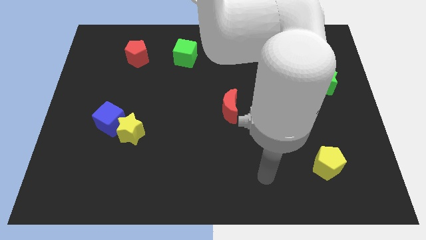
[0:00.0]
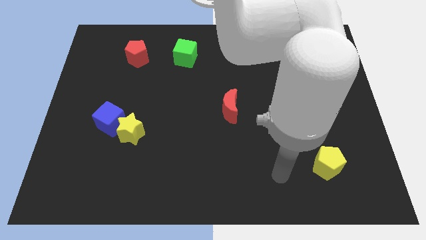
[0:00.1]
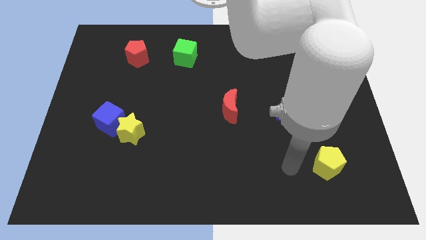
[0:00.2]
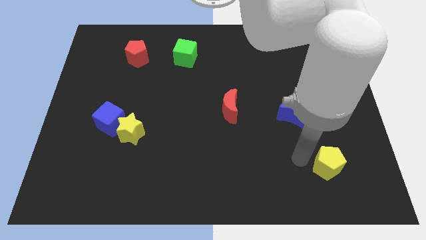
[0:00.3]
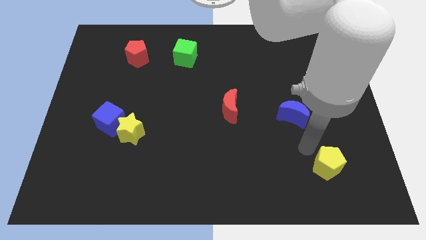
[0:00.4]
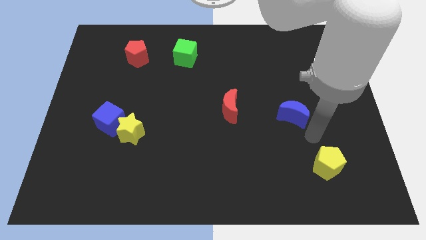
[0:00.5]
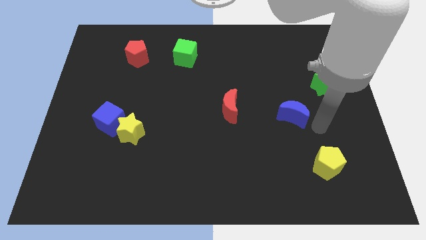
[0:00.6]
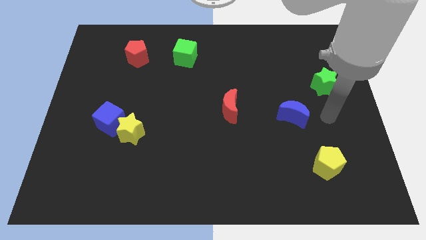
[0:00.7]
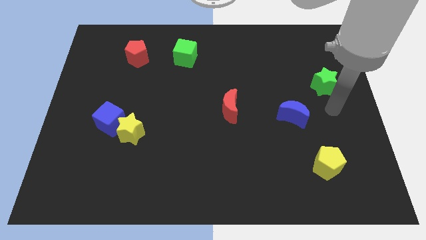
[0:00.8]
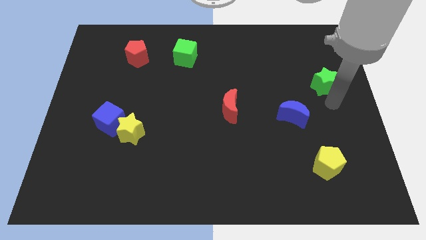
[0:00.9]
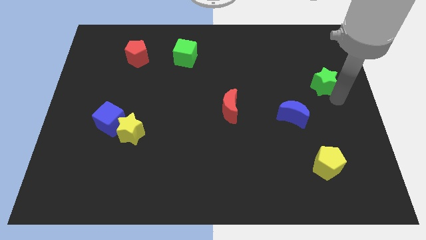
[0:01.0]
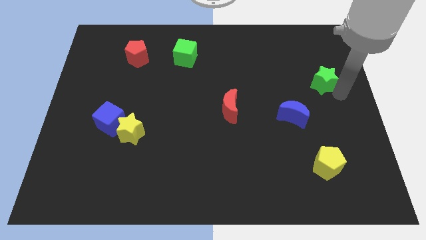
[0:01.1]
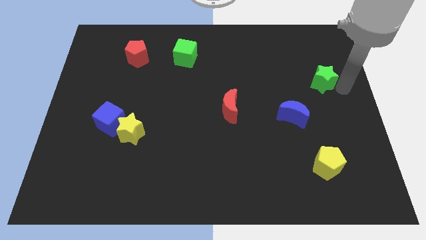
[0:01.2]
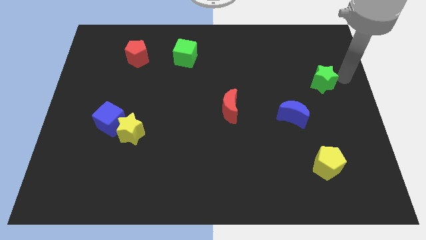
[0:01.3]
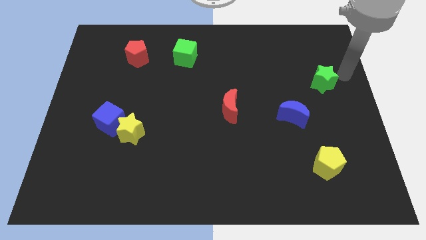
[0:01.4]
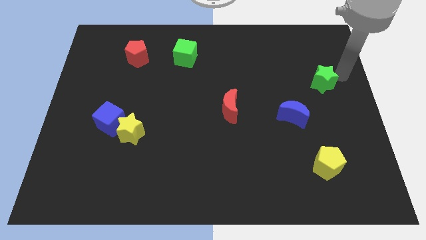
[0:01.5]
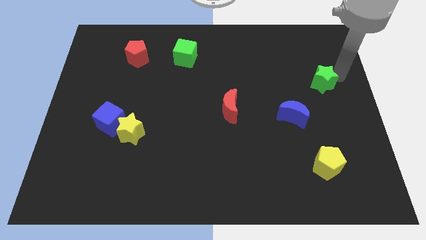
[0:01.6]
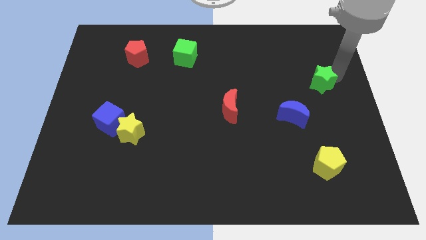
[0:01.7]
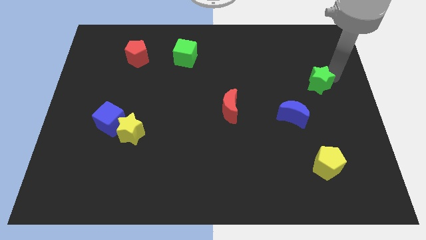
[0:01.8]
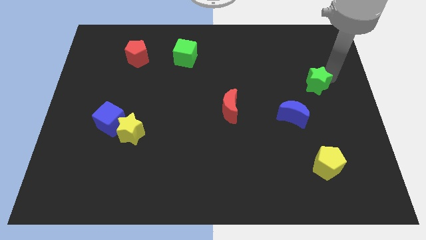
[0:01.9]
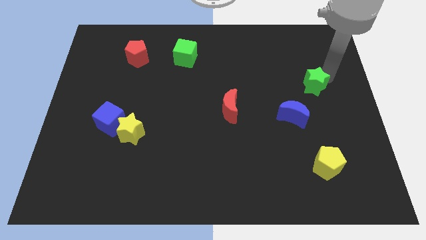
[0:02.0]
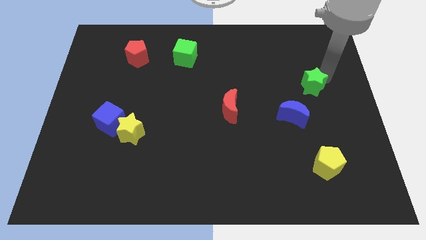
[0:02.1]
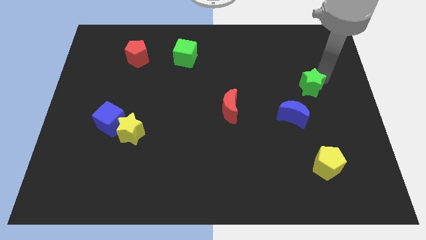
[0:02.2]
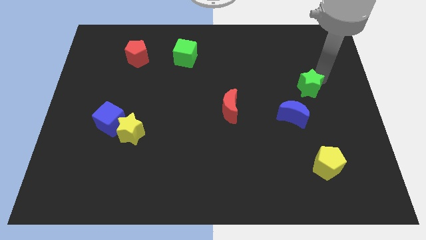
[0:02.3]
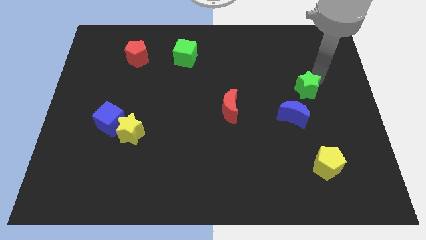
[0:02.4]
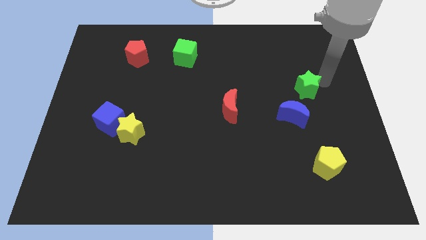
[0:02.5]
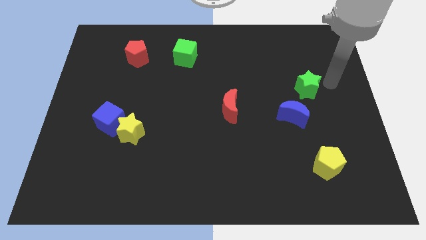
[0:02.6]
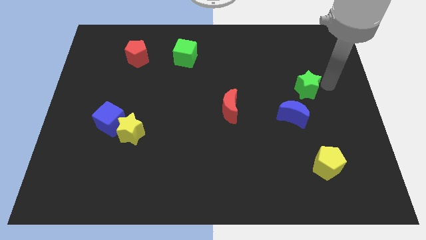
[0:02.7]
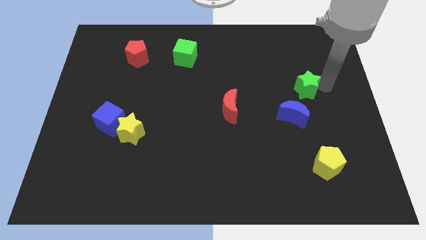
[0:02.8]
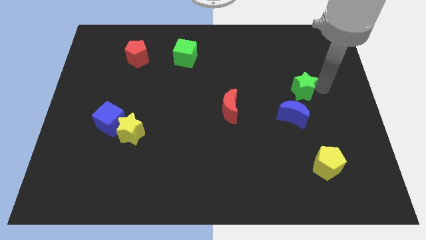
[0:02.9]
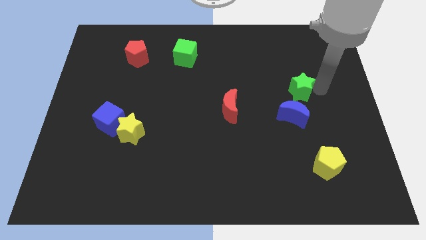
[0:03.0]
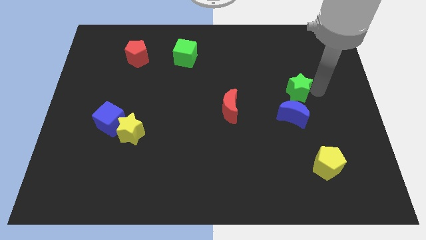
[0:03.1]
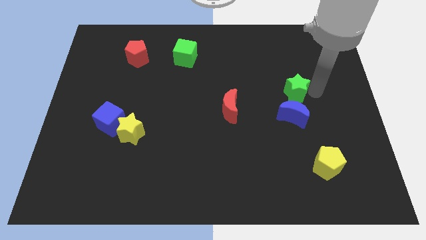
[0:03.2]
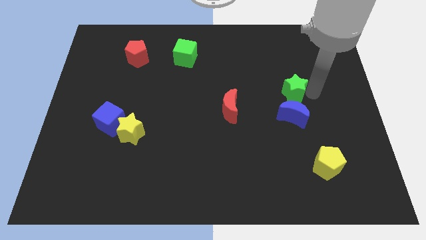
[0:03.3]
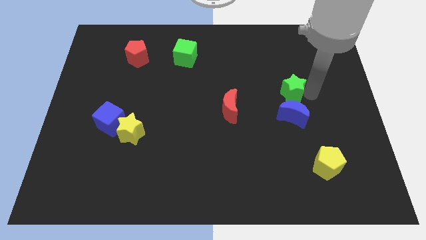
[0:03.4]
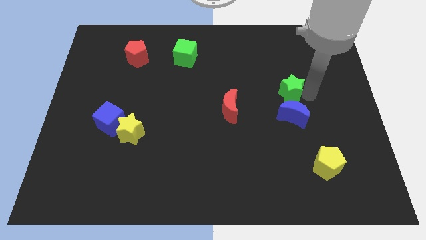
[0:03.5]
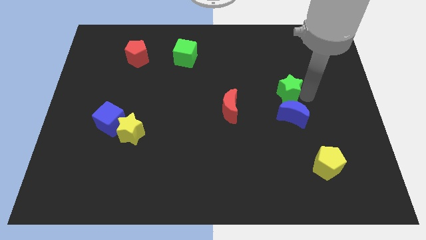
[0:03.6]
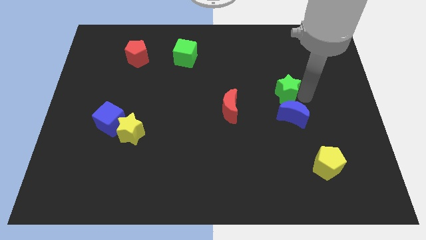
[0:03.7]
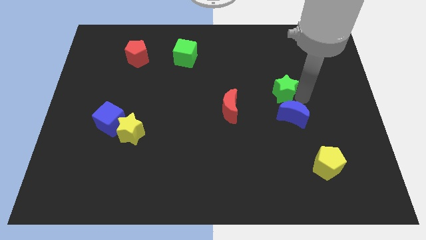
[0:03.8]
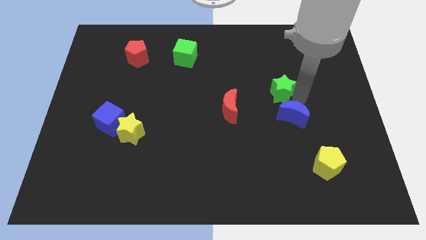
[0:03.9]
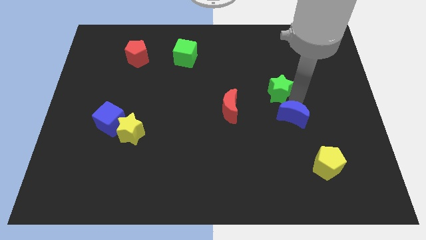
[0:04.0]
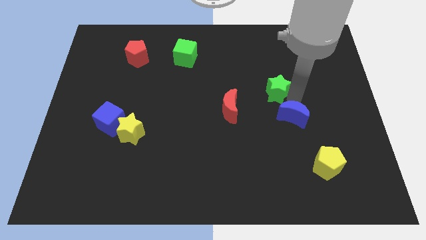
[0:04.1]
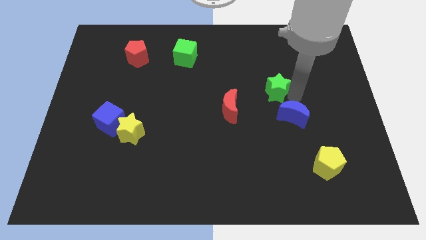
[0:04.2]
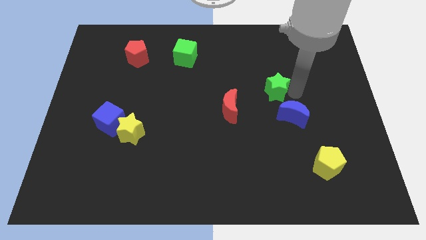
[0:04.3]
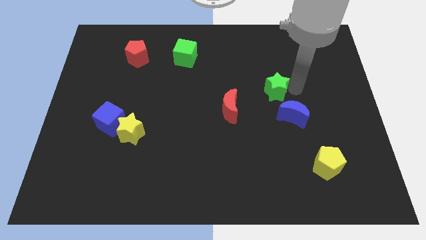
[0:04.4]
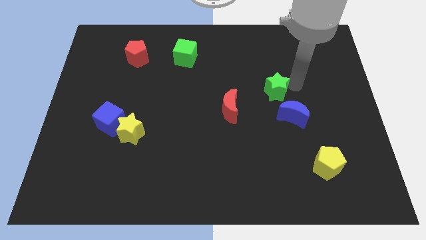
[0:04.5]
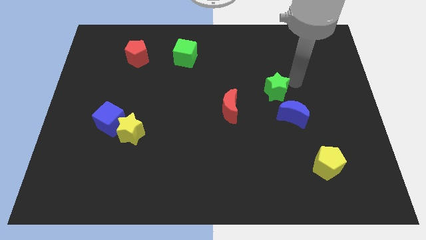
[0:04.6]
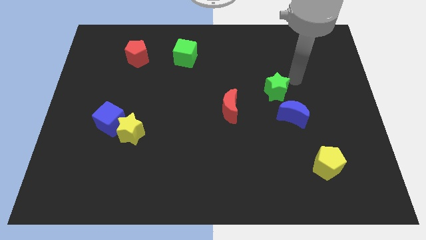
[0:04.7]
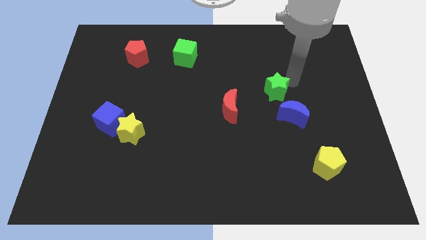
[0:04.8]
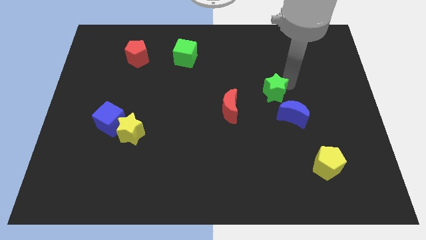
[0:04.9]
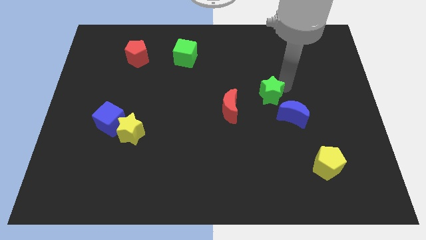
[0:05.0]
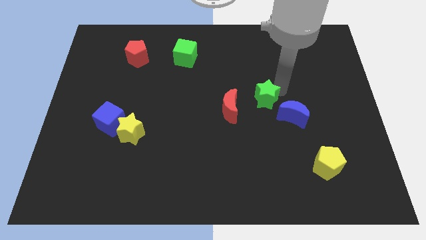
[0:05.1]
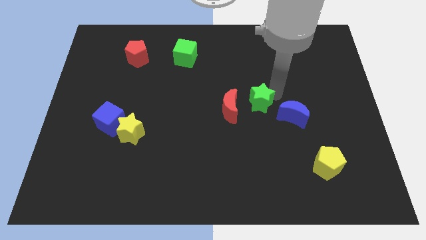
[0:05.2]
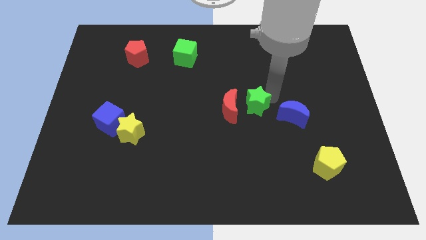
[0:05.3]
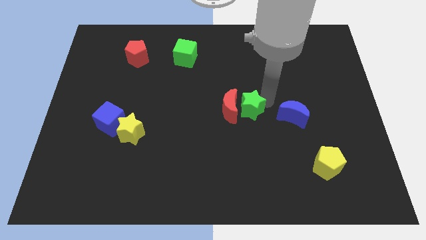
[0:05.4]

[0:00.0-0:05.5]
slide the green star next to the red moon

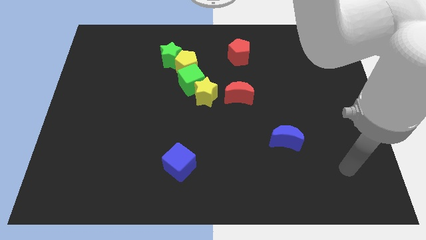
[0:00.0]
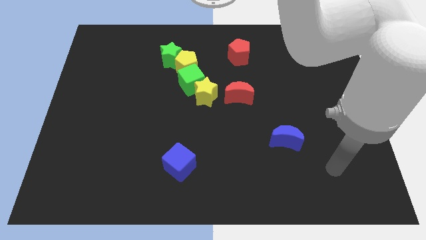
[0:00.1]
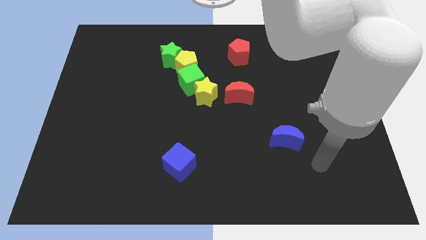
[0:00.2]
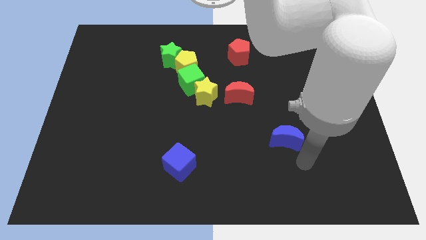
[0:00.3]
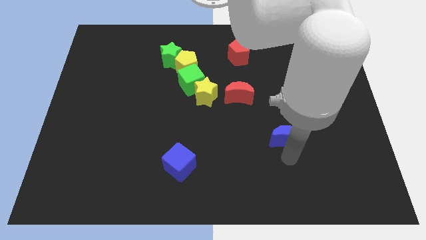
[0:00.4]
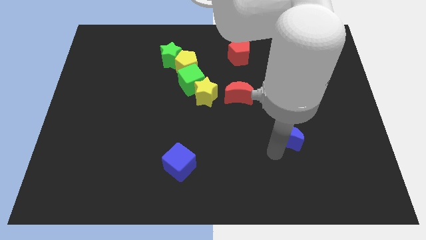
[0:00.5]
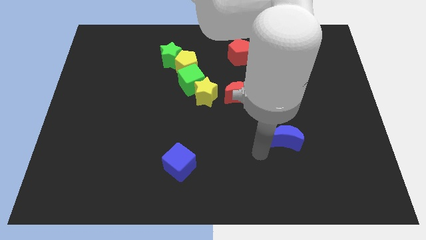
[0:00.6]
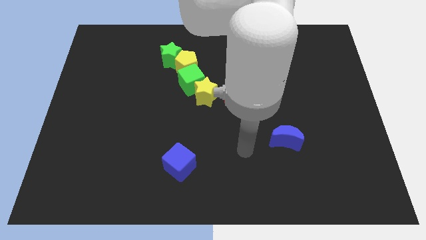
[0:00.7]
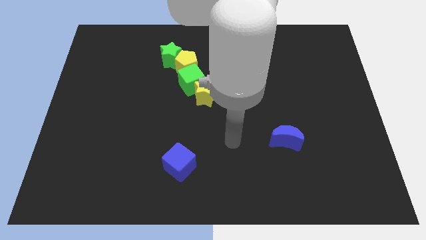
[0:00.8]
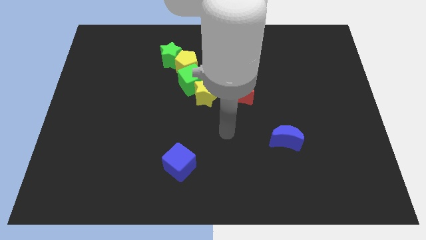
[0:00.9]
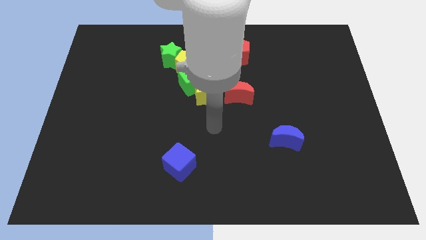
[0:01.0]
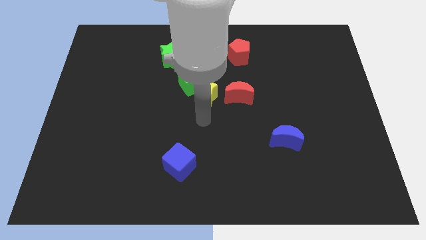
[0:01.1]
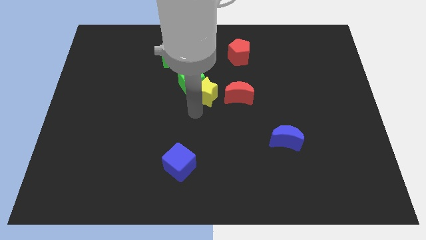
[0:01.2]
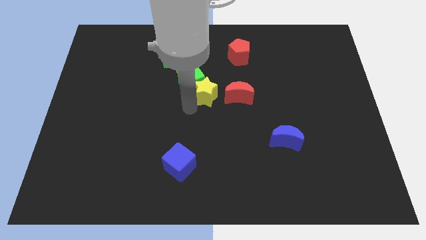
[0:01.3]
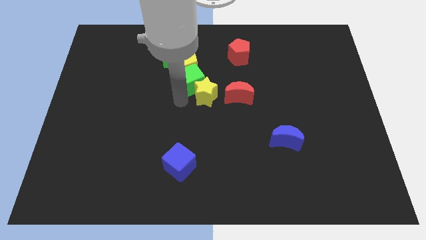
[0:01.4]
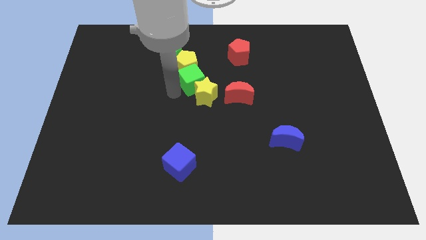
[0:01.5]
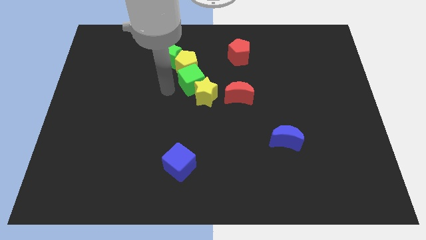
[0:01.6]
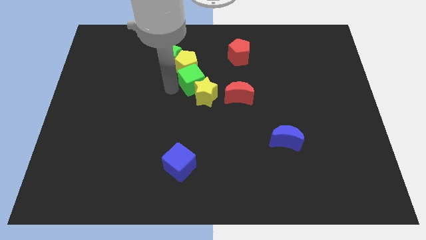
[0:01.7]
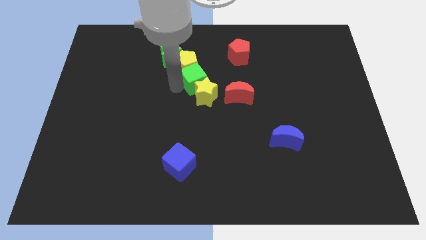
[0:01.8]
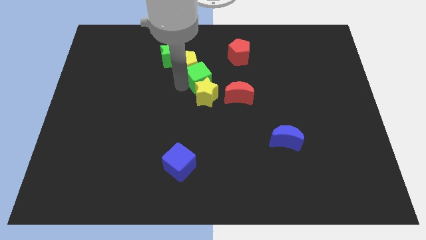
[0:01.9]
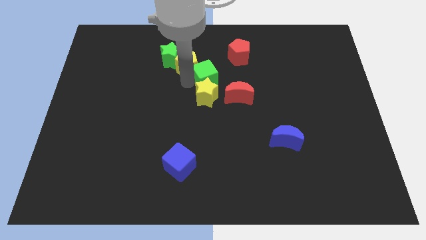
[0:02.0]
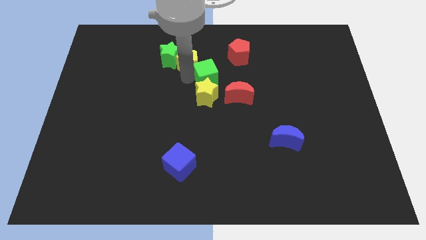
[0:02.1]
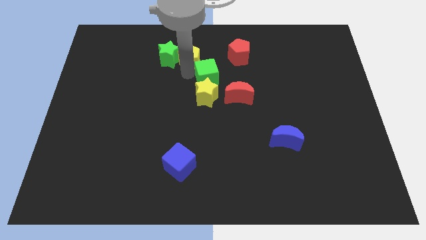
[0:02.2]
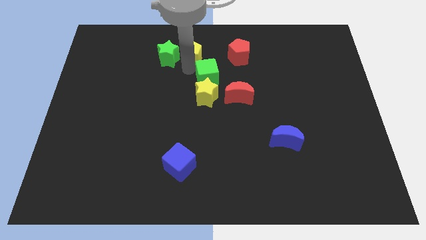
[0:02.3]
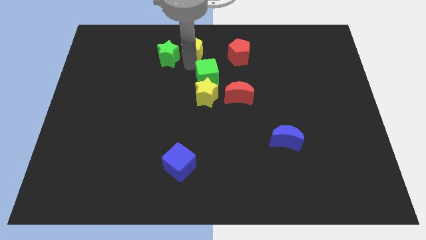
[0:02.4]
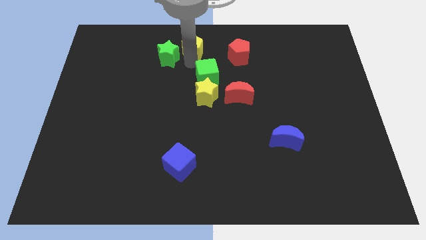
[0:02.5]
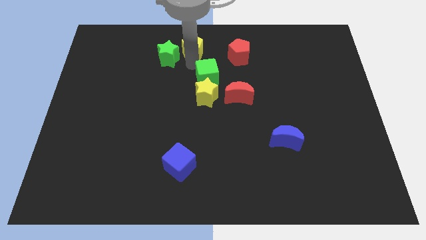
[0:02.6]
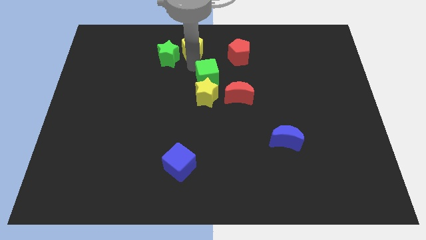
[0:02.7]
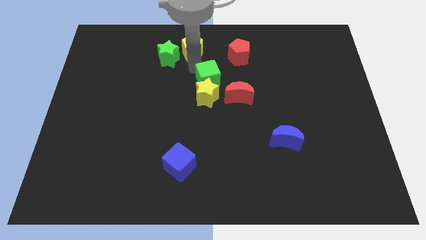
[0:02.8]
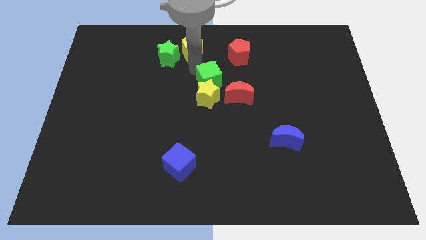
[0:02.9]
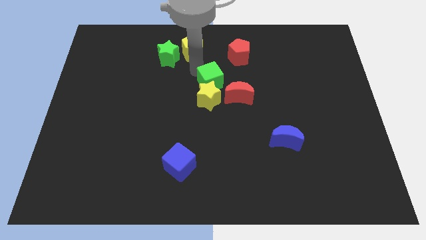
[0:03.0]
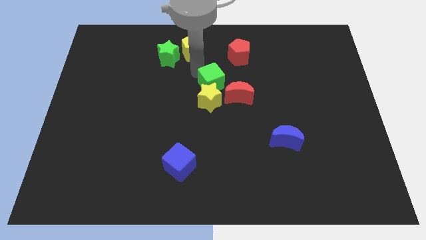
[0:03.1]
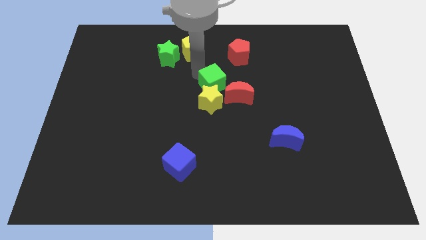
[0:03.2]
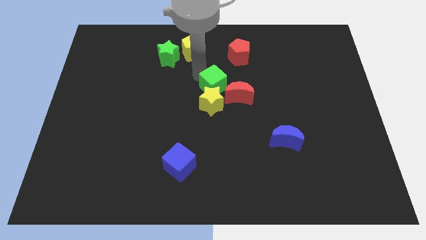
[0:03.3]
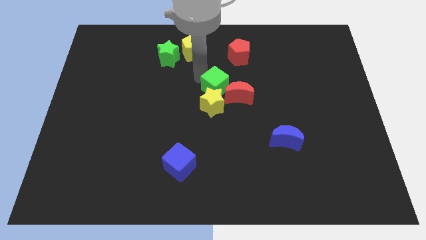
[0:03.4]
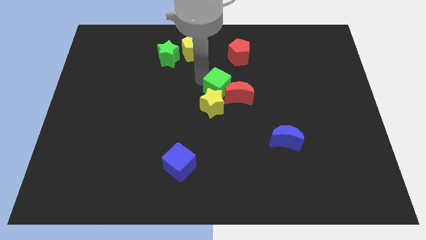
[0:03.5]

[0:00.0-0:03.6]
push the green cube towards the red moon
